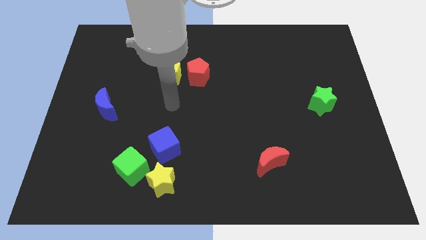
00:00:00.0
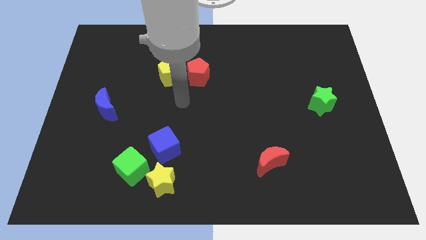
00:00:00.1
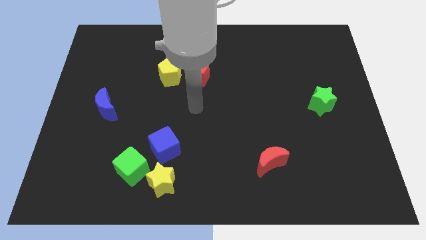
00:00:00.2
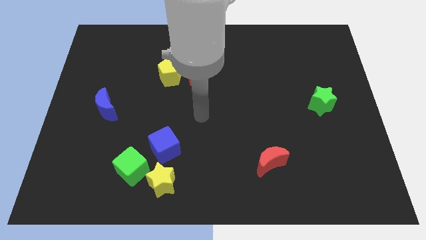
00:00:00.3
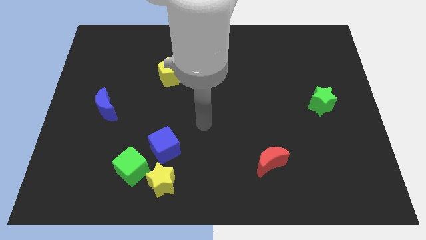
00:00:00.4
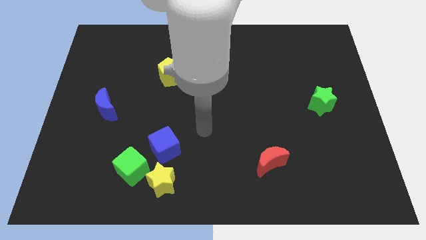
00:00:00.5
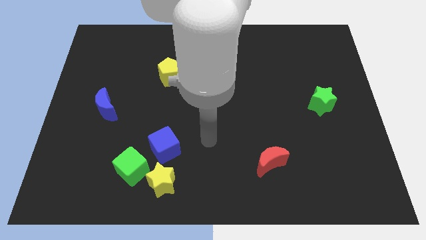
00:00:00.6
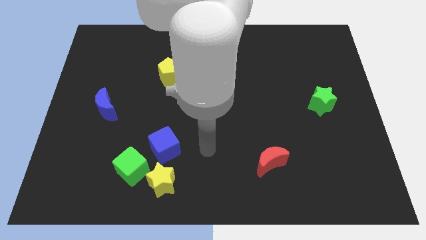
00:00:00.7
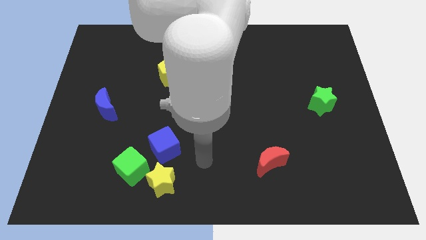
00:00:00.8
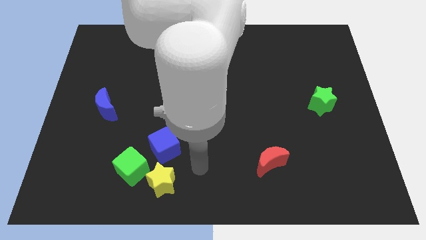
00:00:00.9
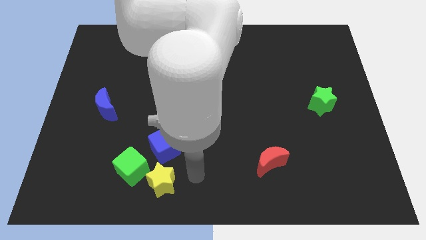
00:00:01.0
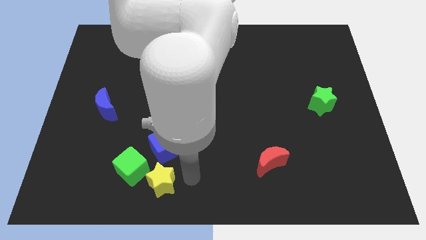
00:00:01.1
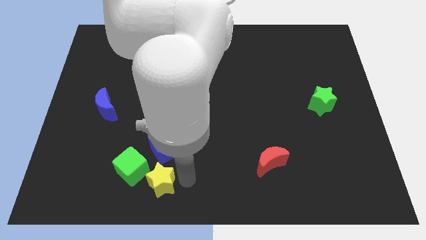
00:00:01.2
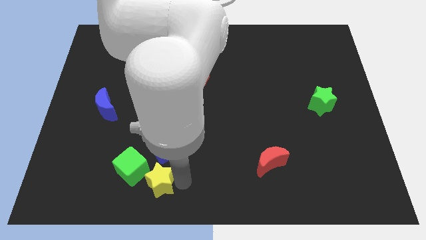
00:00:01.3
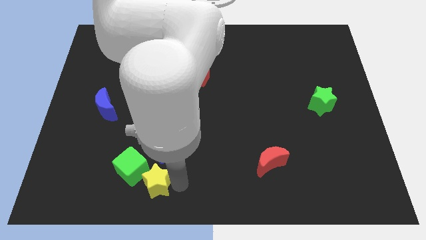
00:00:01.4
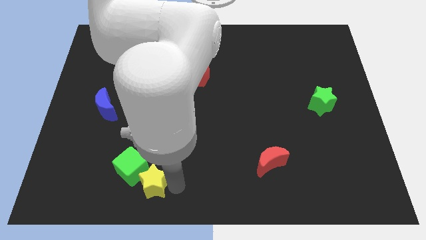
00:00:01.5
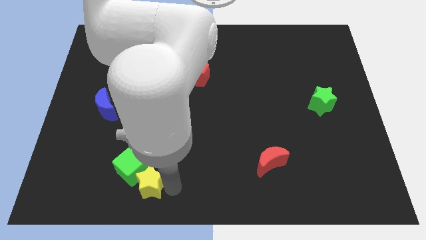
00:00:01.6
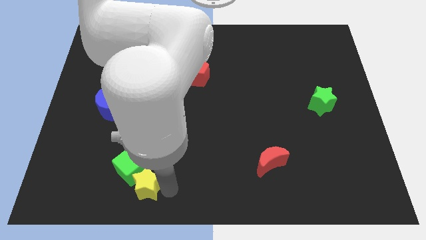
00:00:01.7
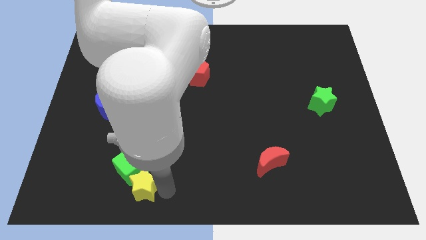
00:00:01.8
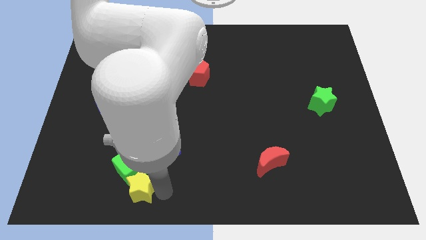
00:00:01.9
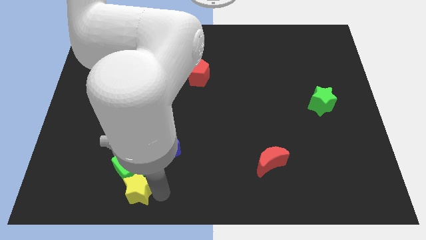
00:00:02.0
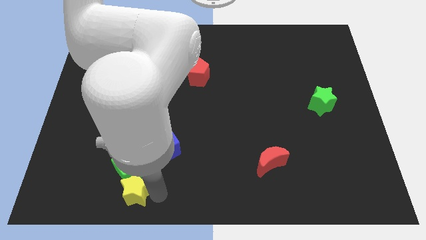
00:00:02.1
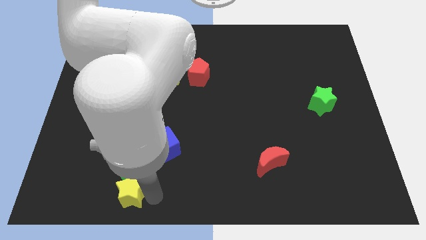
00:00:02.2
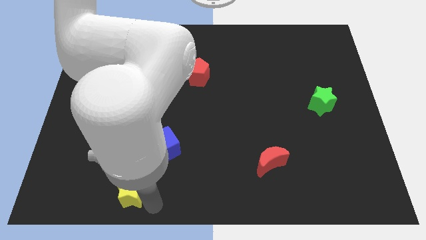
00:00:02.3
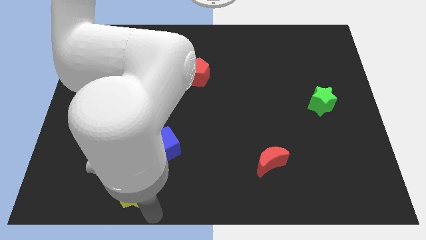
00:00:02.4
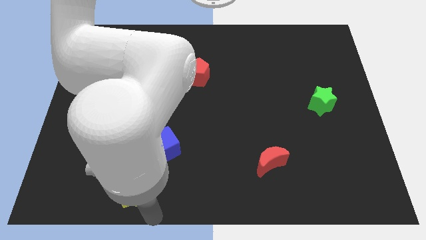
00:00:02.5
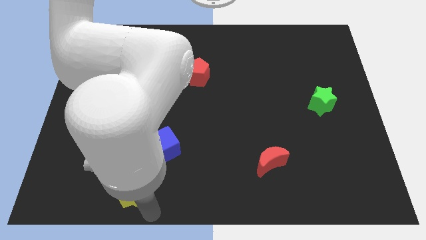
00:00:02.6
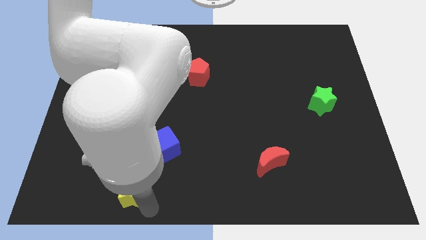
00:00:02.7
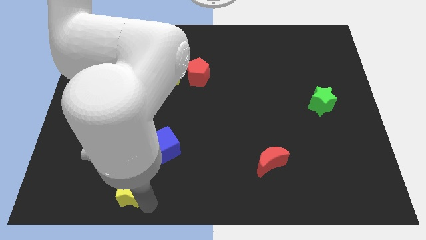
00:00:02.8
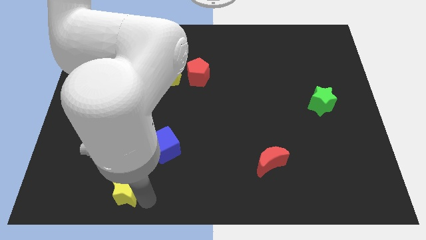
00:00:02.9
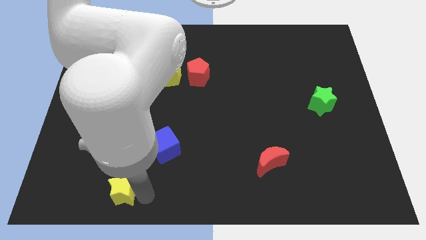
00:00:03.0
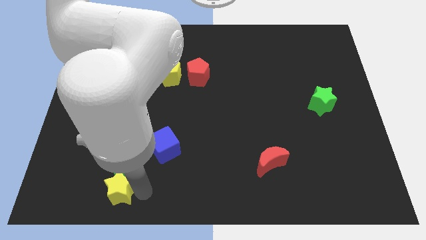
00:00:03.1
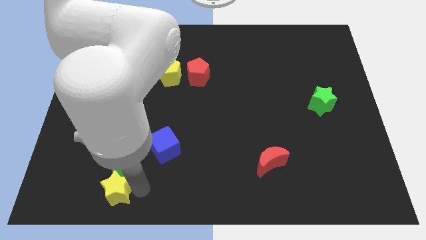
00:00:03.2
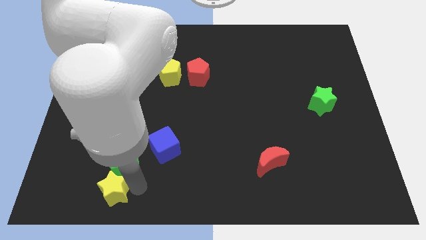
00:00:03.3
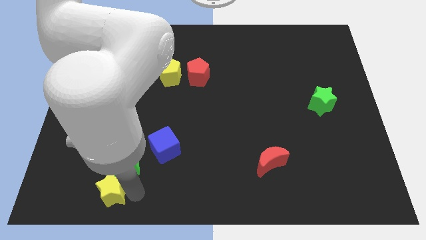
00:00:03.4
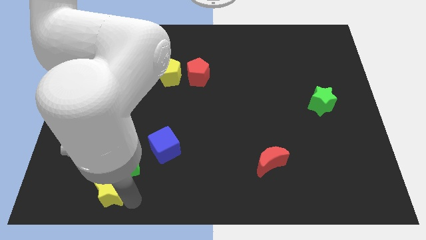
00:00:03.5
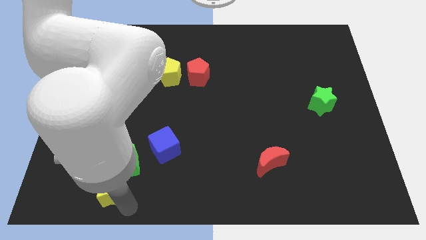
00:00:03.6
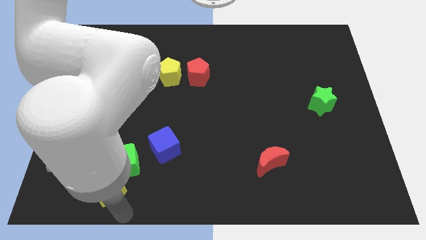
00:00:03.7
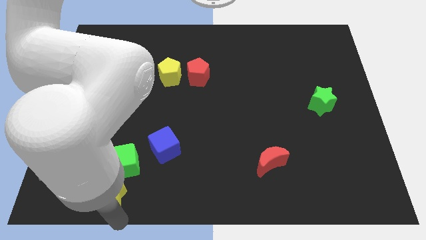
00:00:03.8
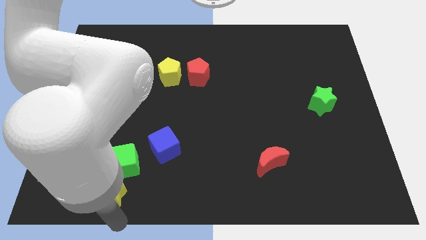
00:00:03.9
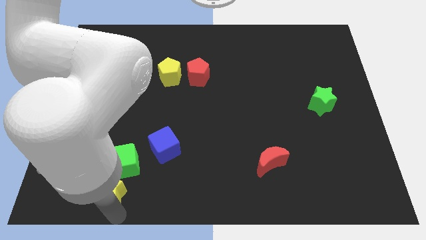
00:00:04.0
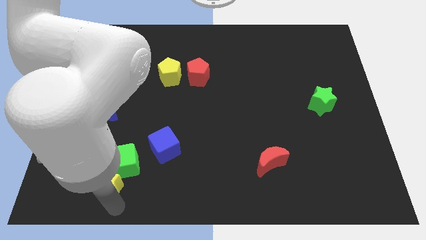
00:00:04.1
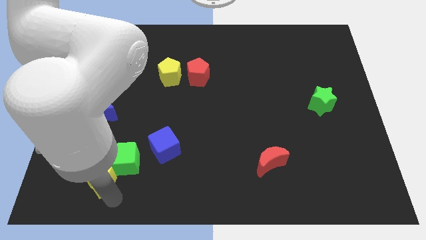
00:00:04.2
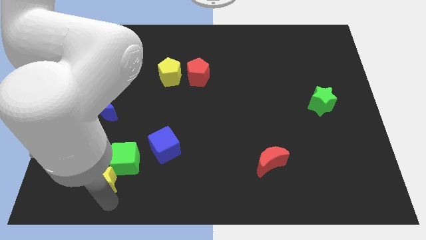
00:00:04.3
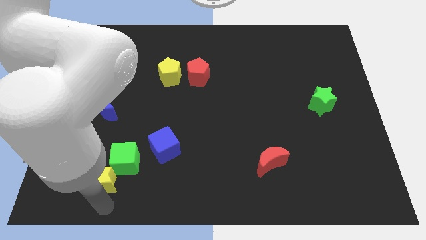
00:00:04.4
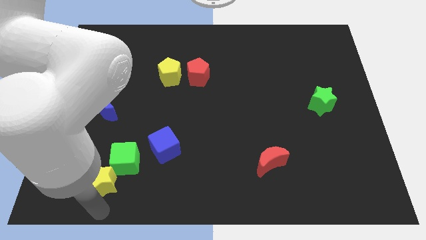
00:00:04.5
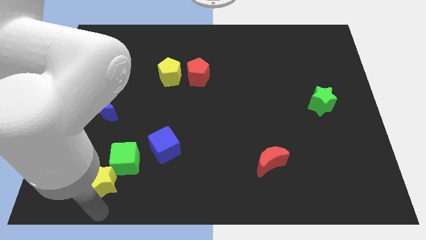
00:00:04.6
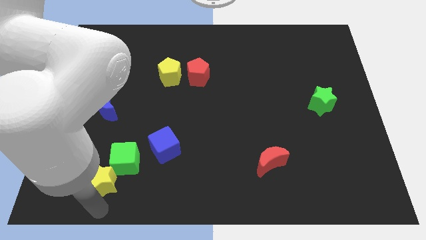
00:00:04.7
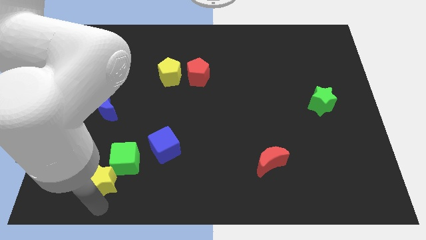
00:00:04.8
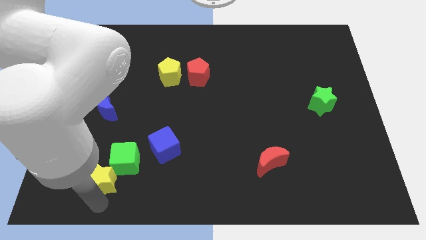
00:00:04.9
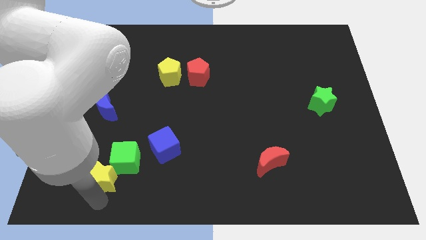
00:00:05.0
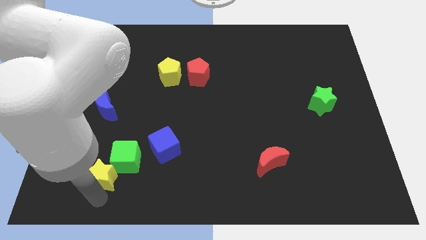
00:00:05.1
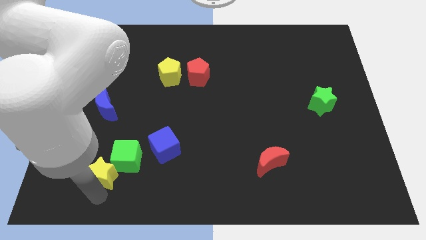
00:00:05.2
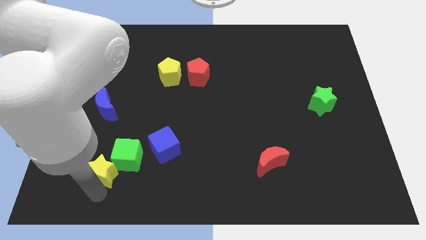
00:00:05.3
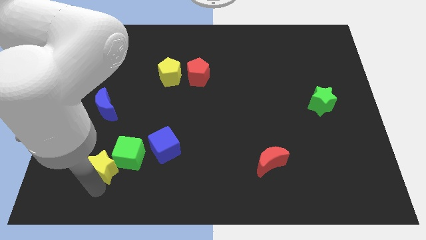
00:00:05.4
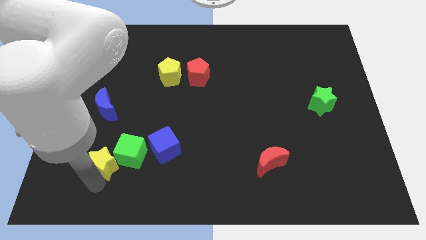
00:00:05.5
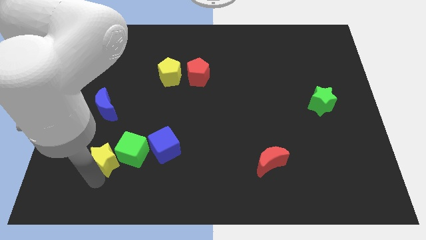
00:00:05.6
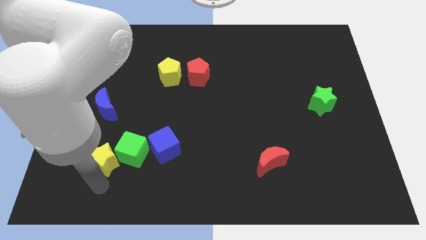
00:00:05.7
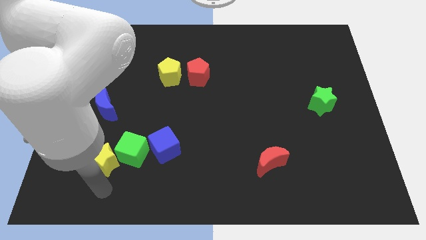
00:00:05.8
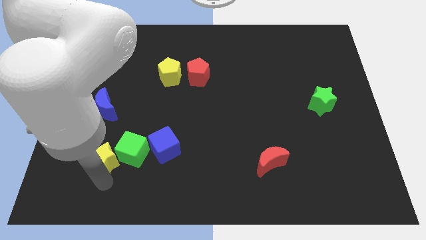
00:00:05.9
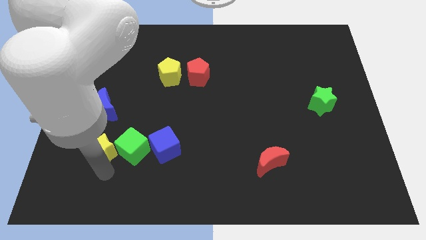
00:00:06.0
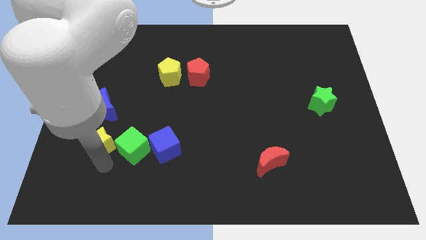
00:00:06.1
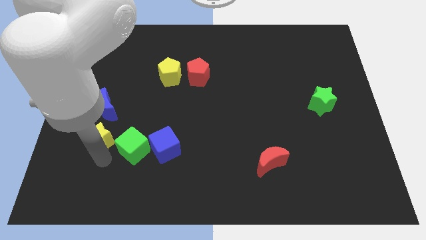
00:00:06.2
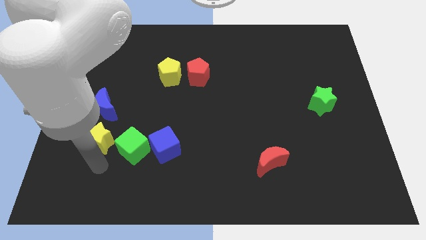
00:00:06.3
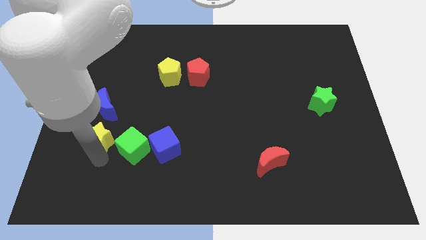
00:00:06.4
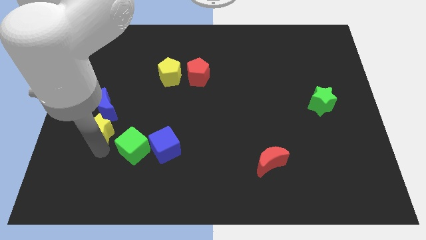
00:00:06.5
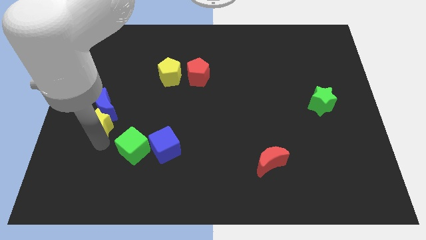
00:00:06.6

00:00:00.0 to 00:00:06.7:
slide the yellow star close to the blue moon

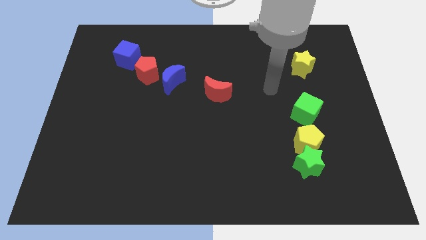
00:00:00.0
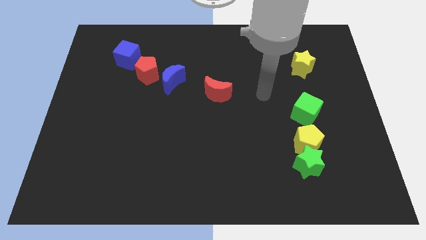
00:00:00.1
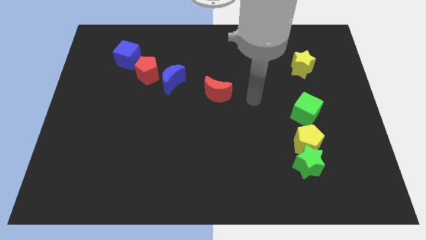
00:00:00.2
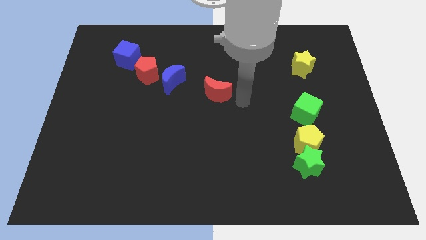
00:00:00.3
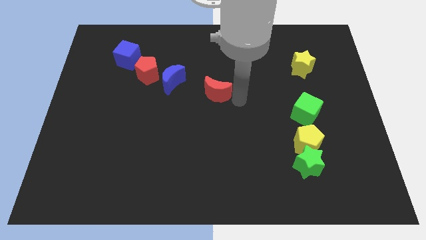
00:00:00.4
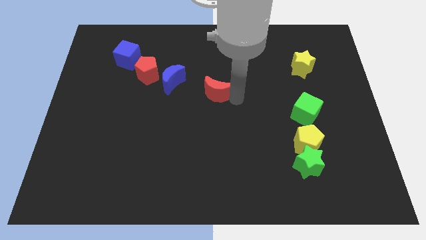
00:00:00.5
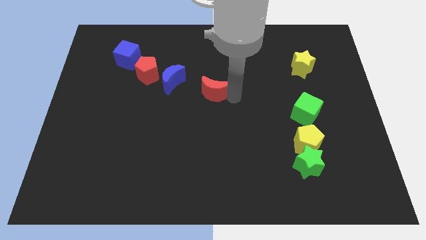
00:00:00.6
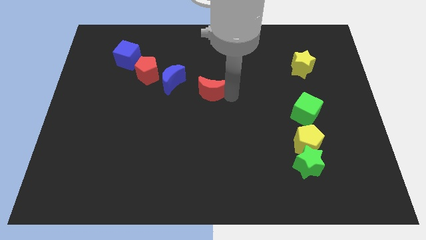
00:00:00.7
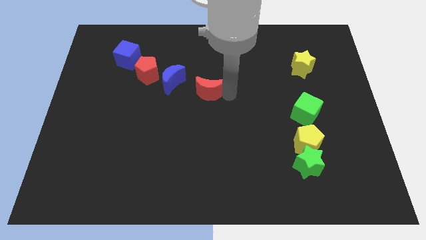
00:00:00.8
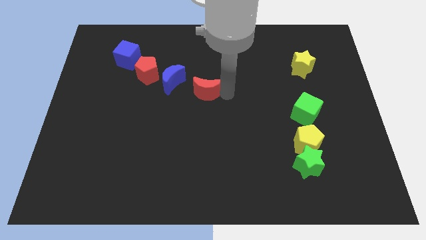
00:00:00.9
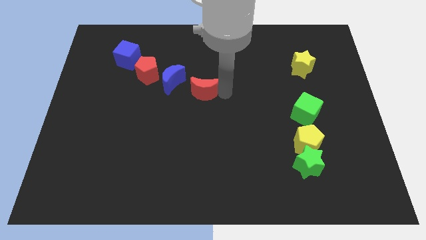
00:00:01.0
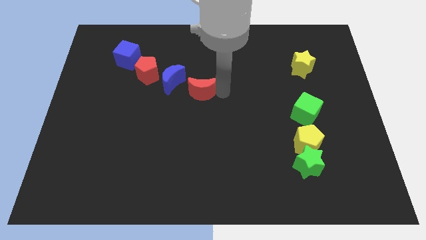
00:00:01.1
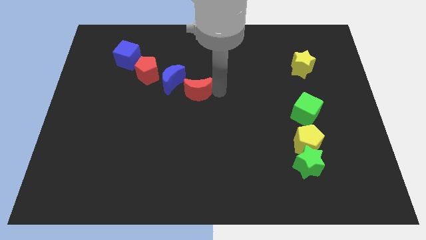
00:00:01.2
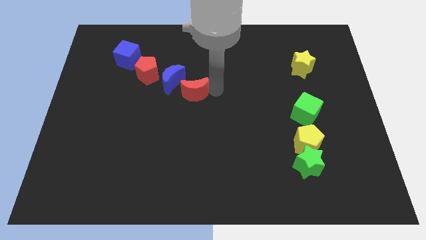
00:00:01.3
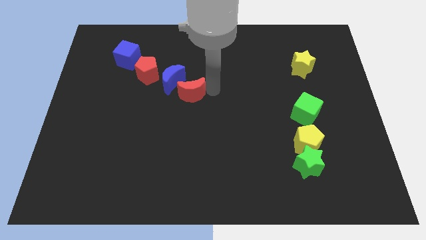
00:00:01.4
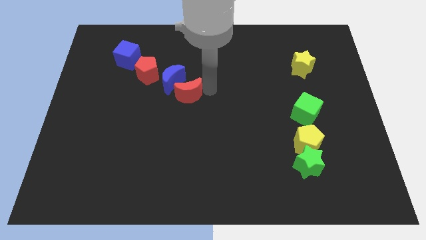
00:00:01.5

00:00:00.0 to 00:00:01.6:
put the red moon close to the blue moon
